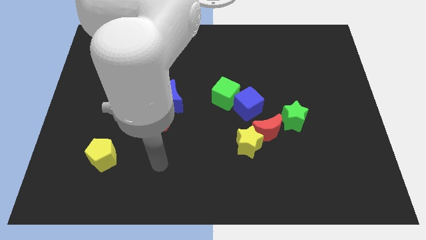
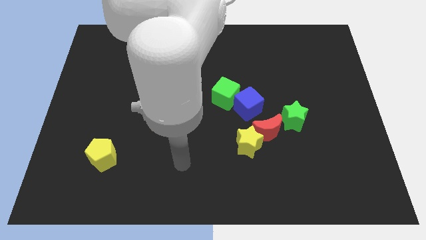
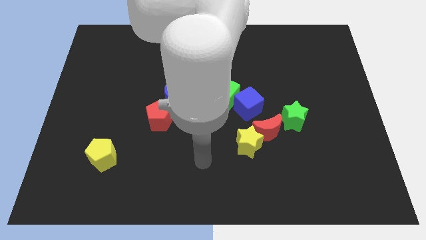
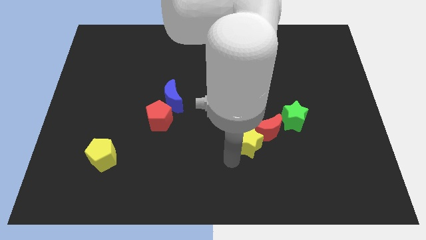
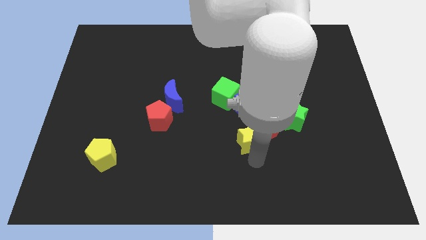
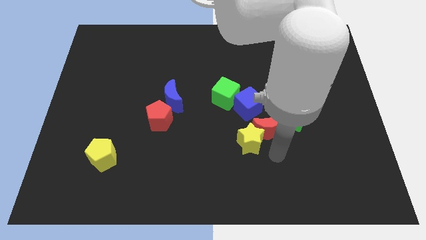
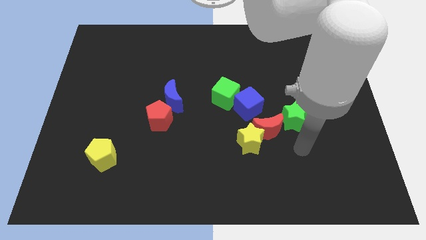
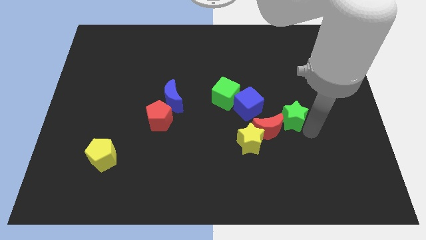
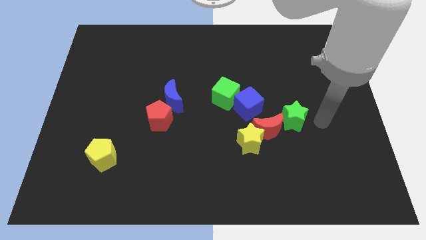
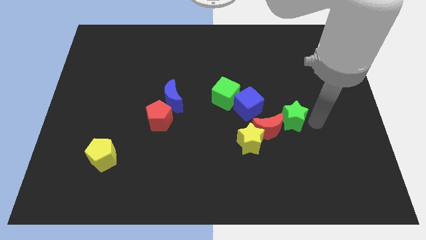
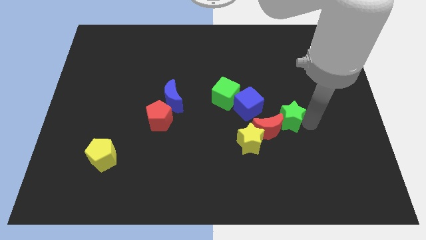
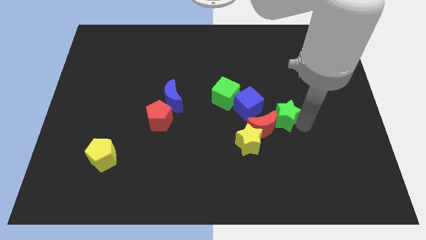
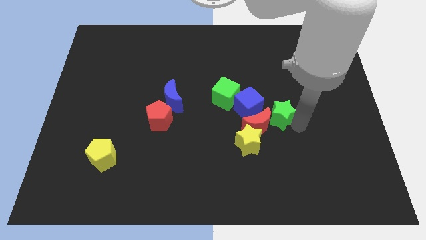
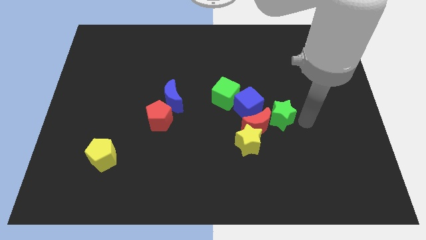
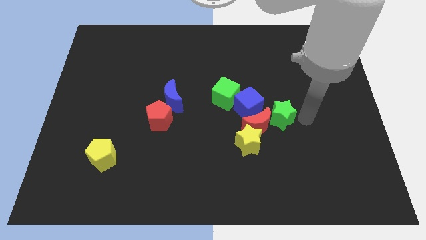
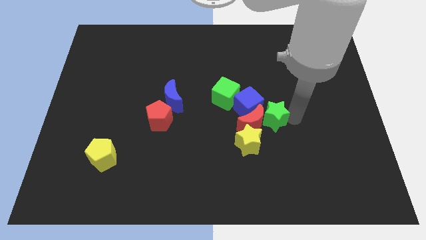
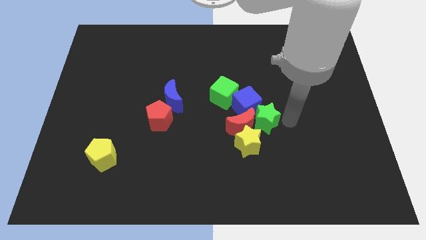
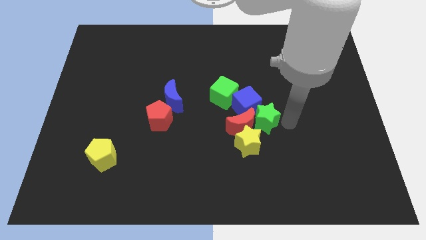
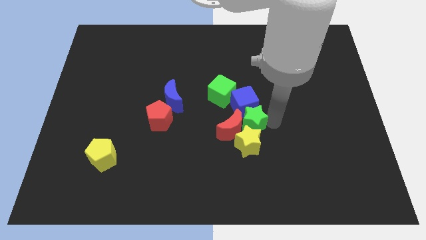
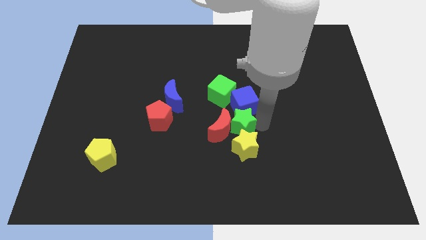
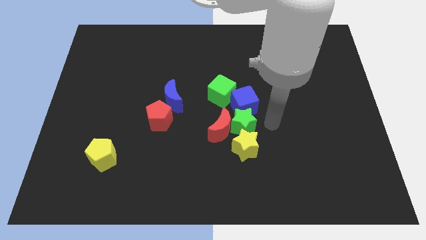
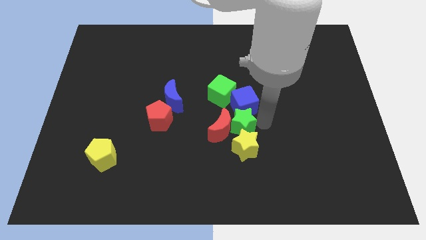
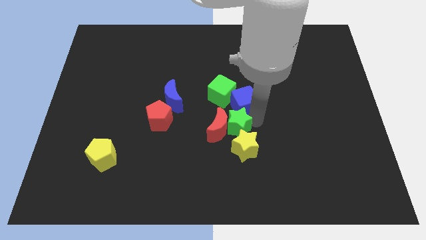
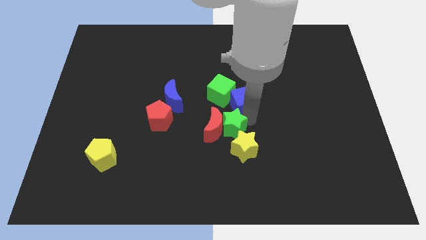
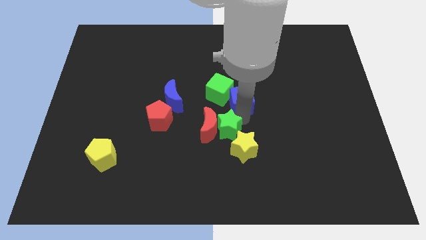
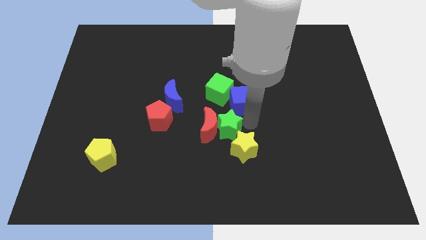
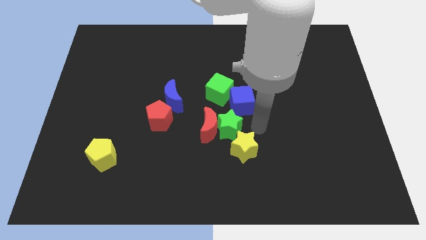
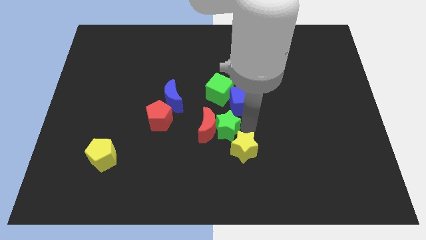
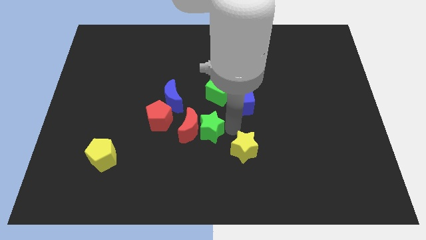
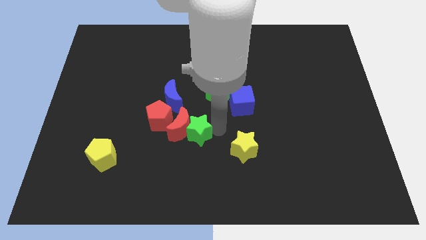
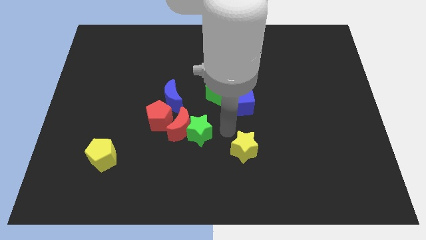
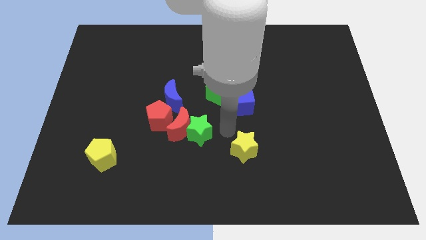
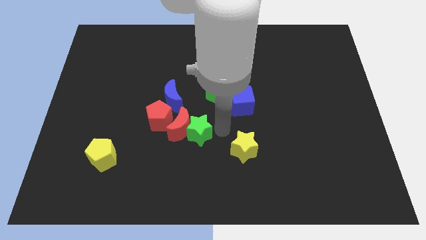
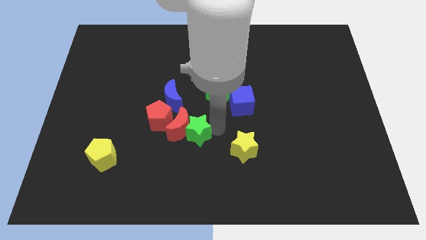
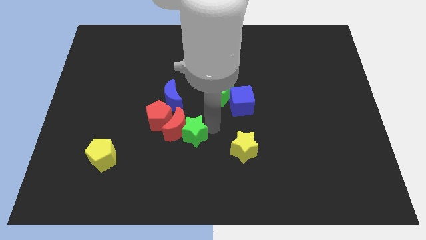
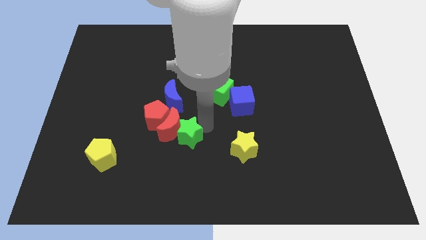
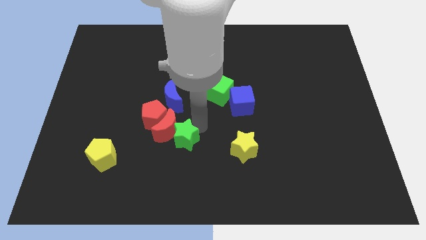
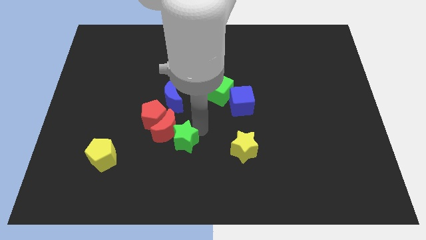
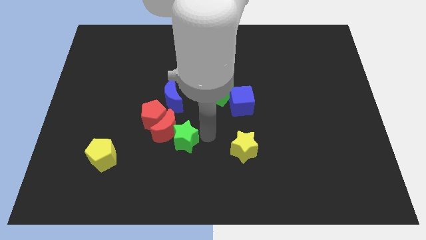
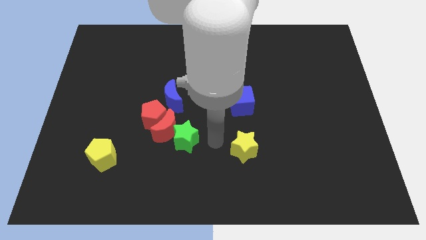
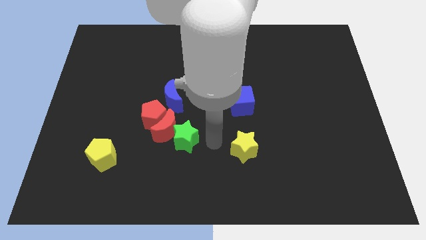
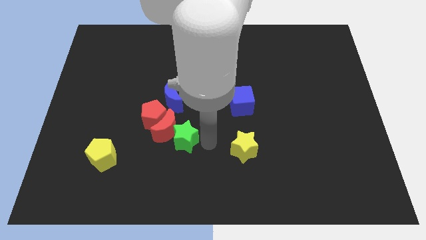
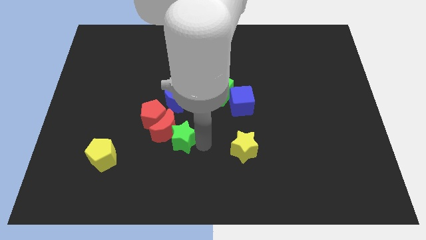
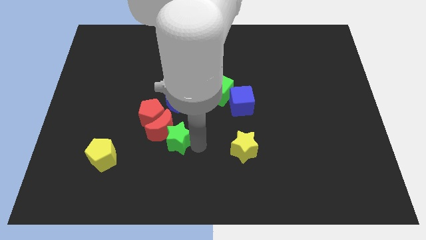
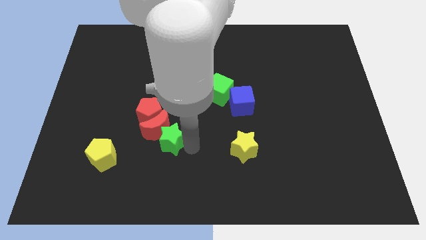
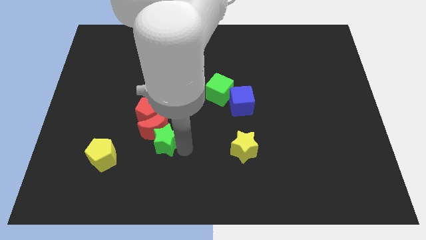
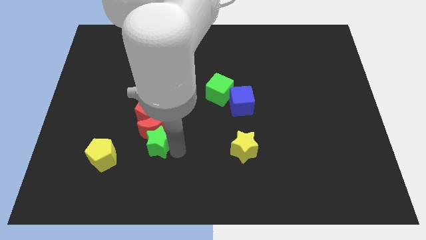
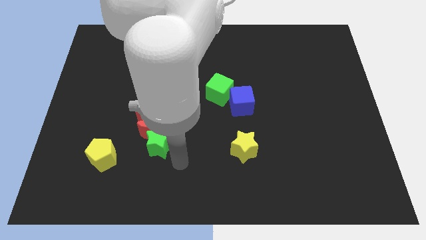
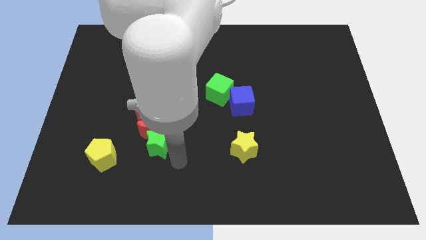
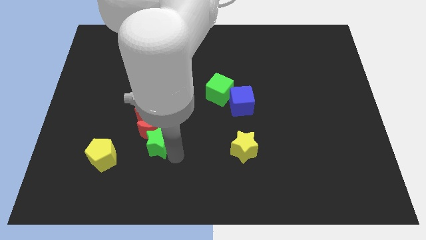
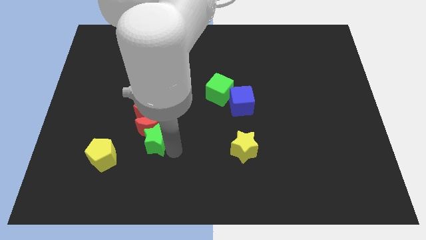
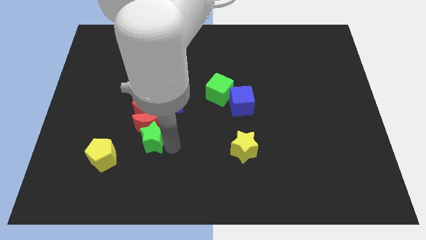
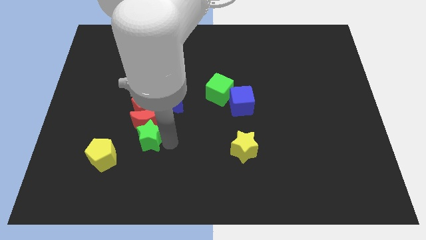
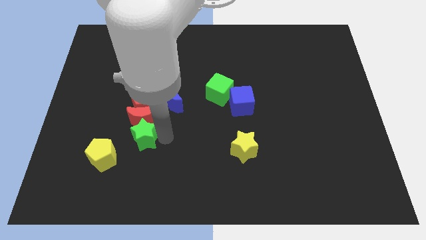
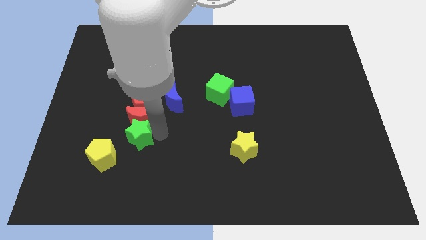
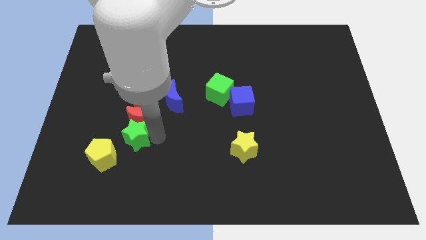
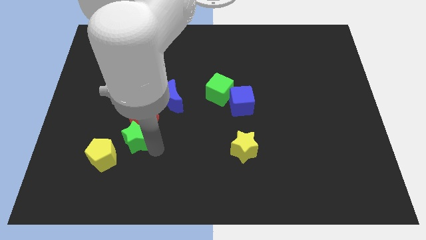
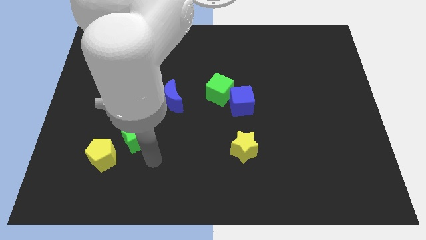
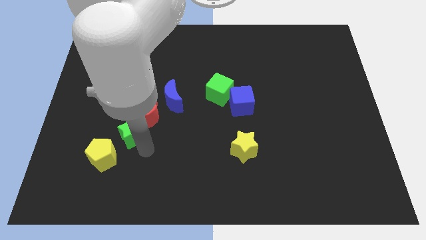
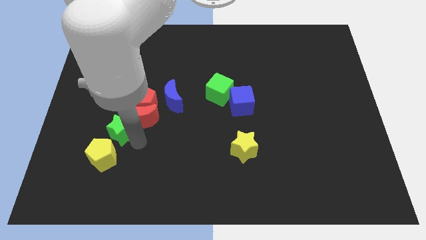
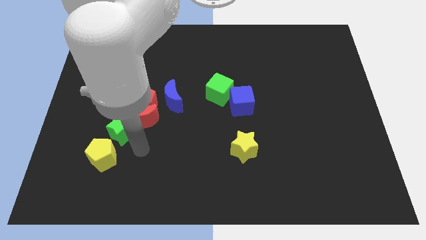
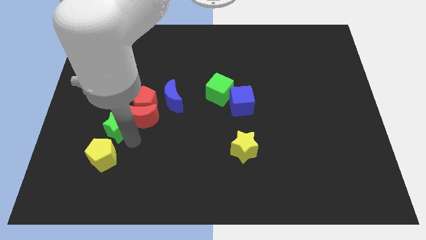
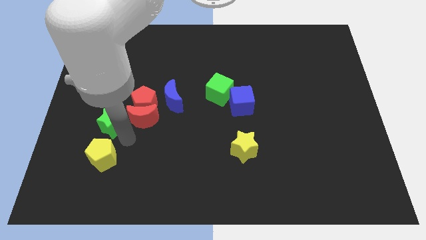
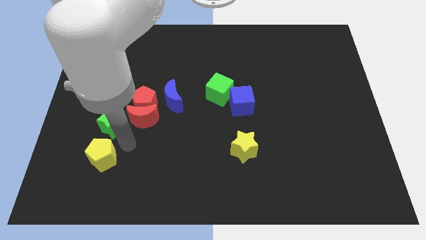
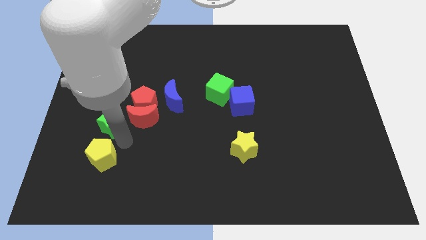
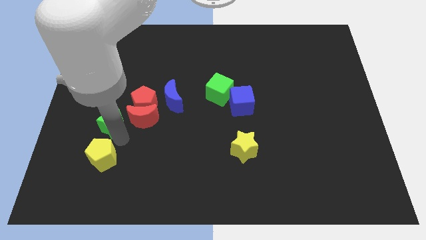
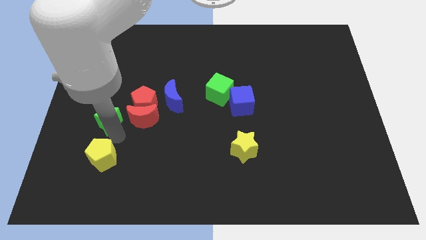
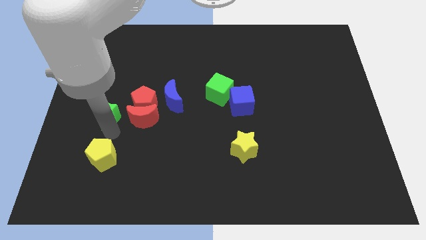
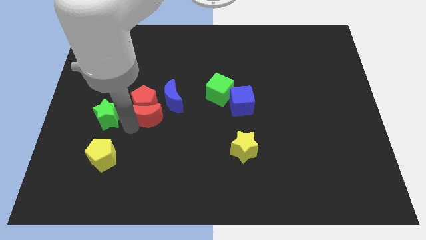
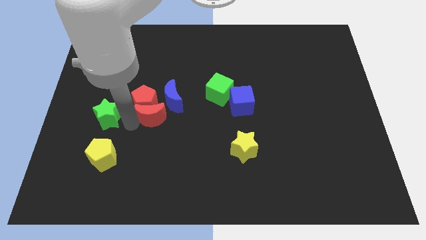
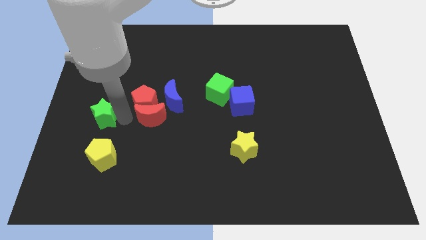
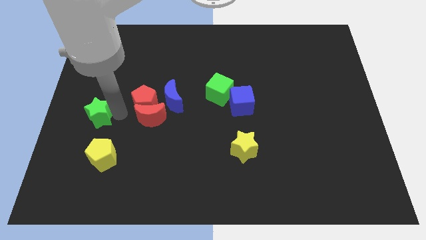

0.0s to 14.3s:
push the green star to the left side of the board
